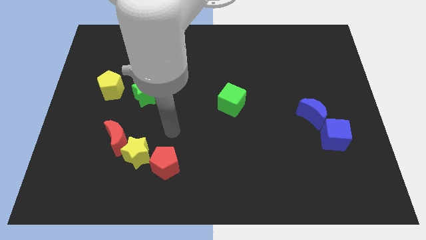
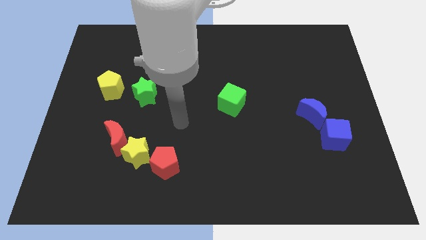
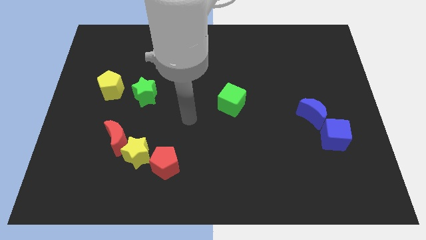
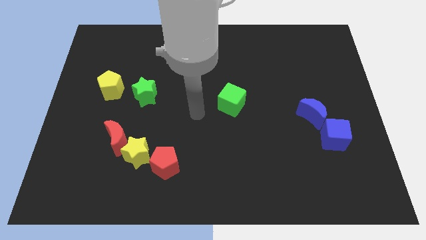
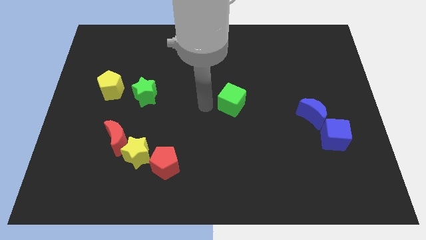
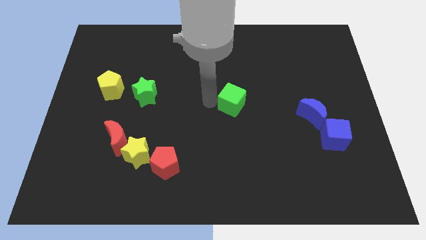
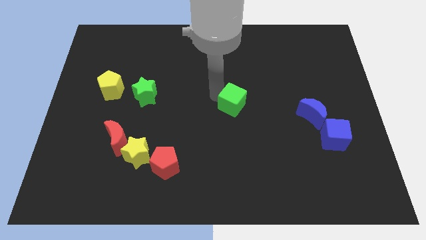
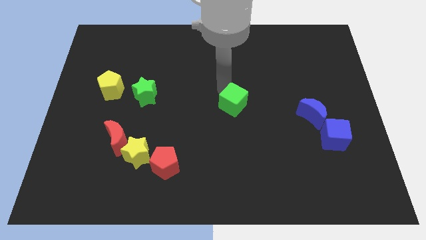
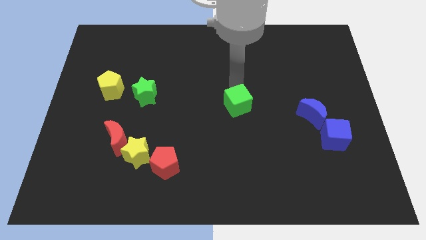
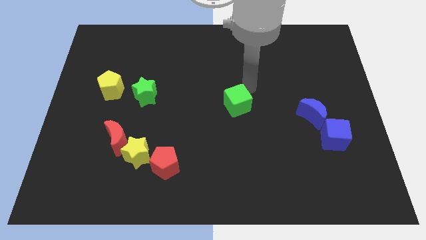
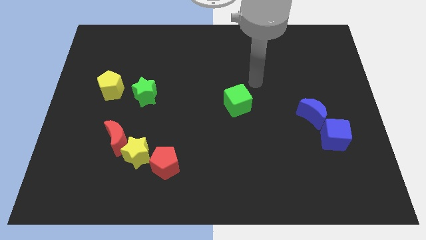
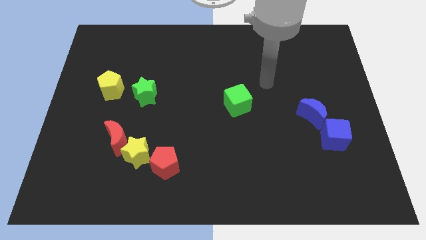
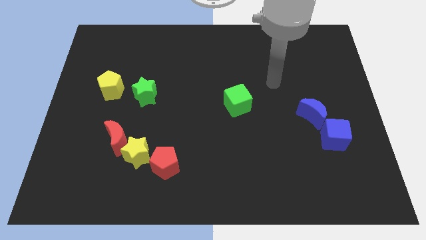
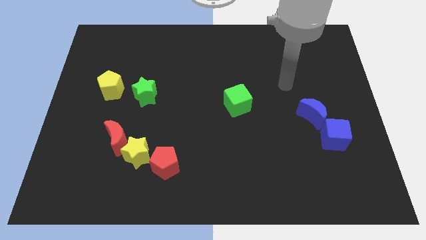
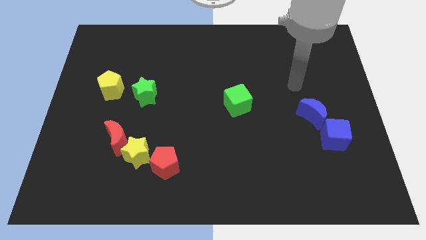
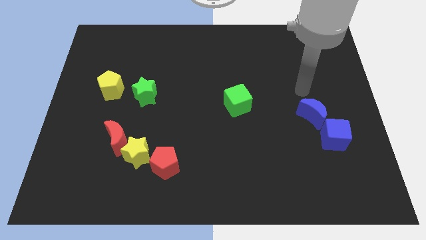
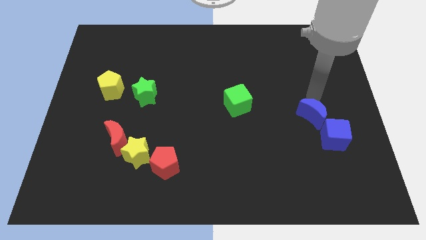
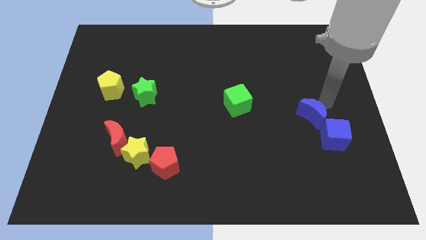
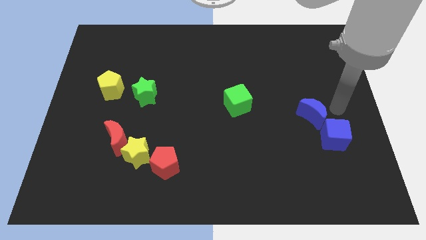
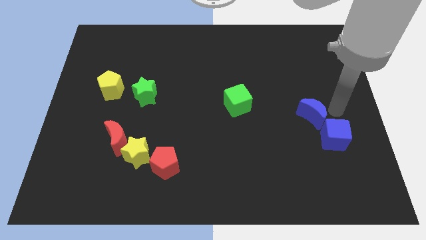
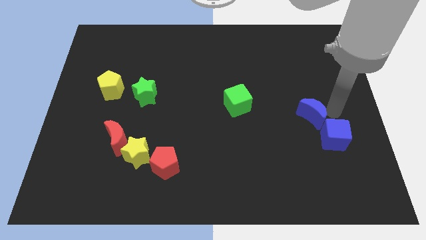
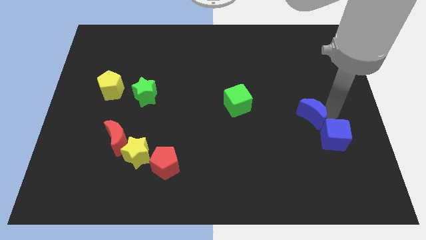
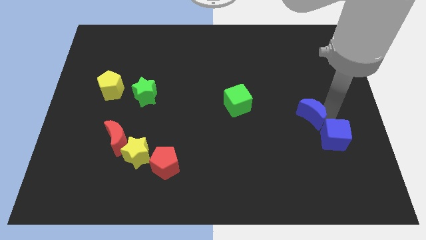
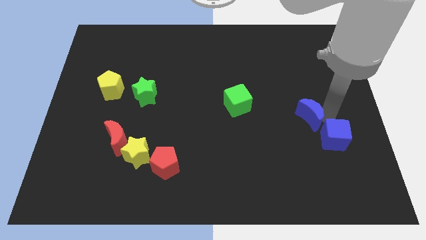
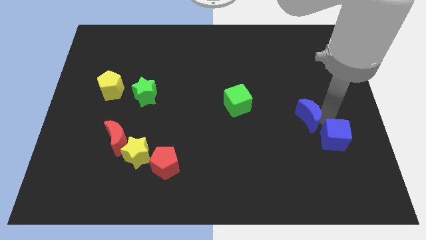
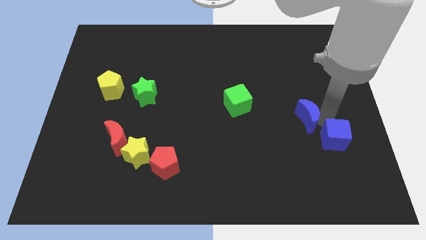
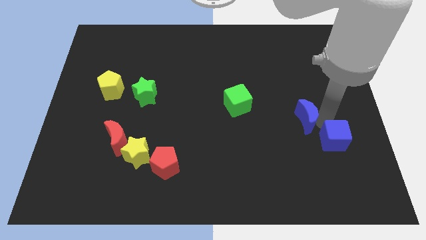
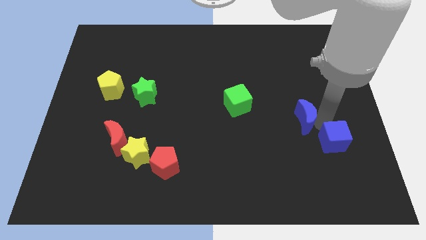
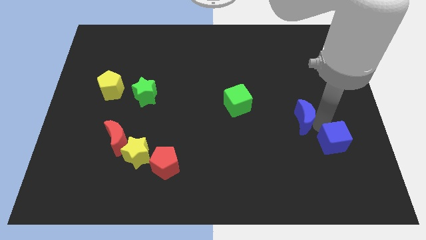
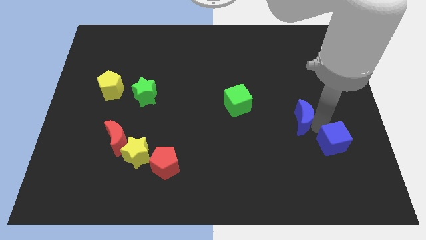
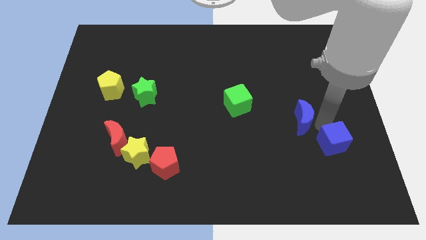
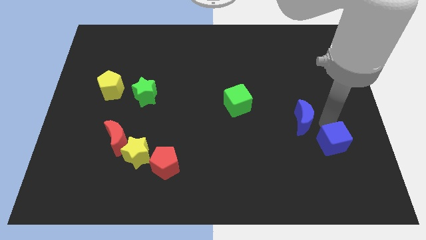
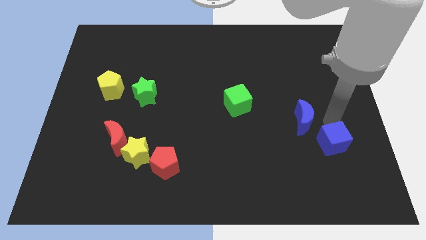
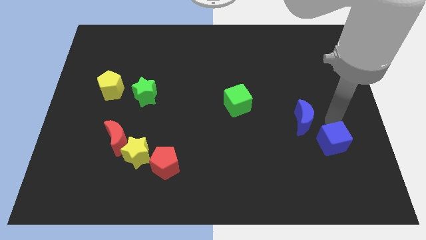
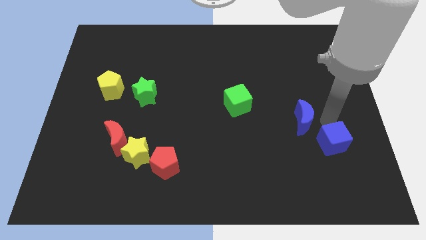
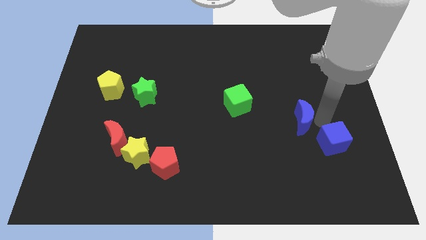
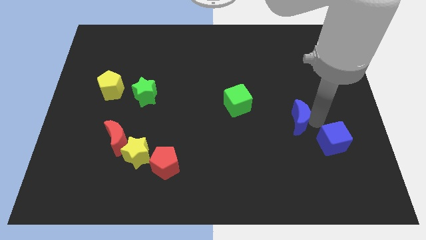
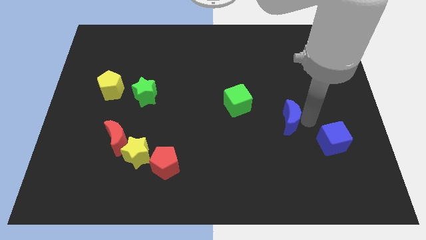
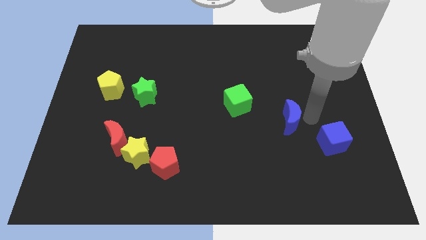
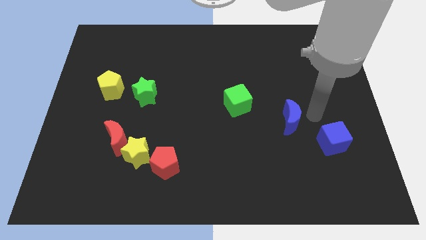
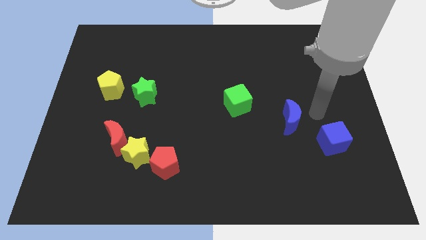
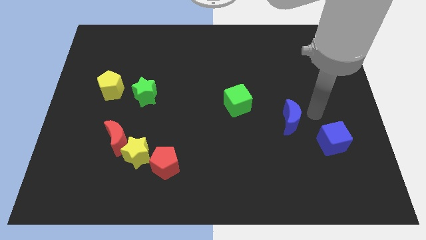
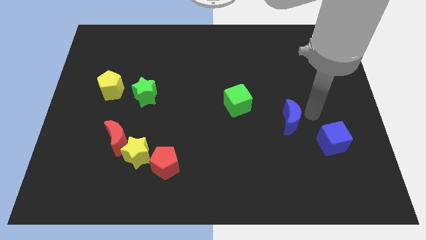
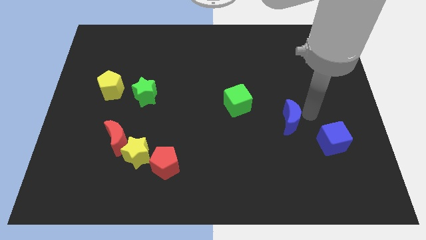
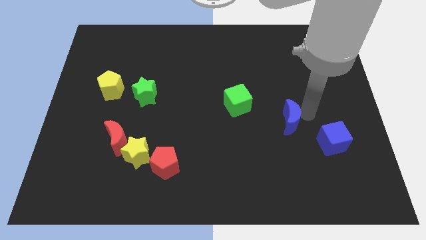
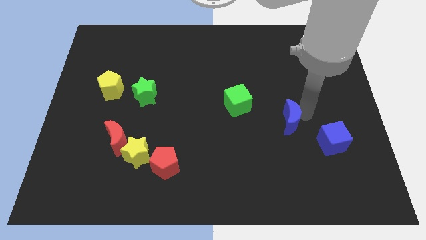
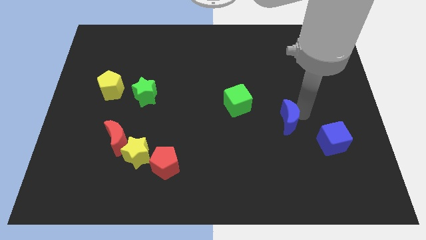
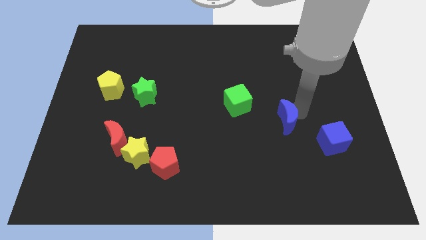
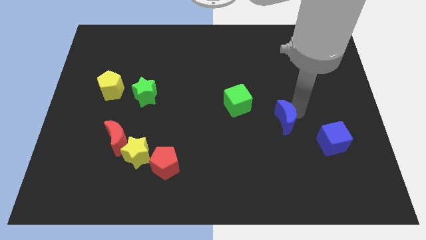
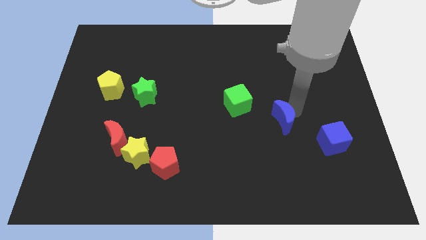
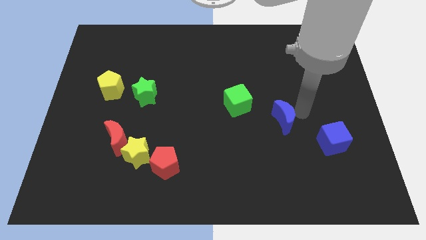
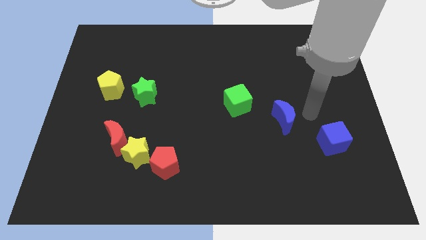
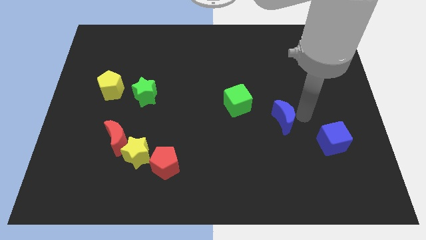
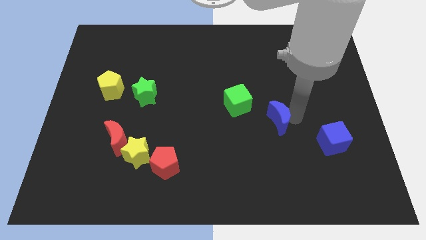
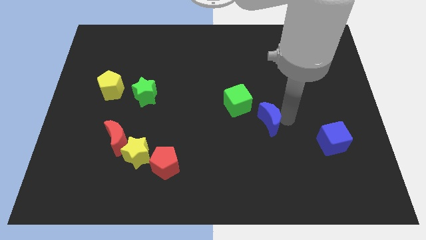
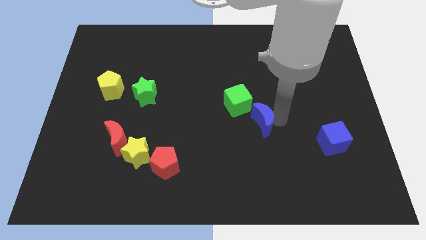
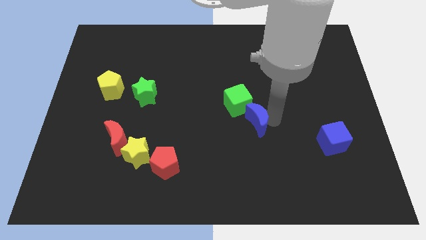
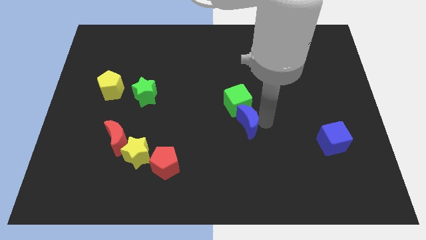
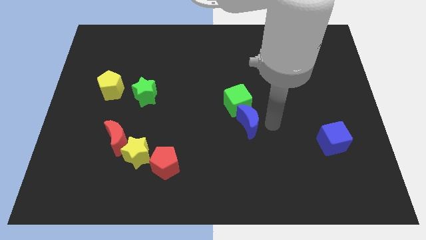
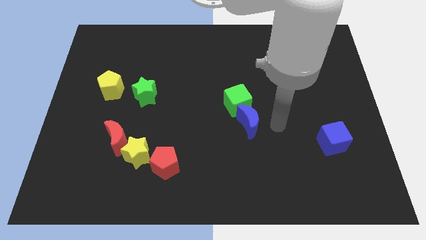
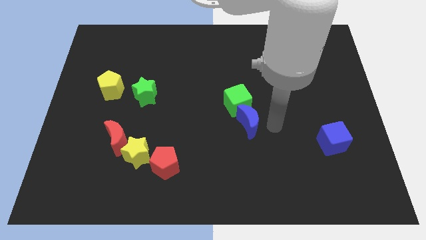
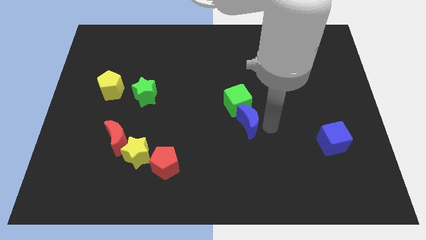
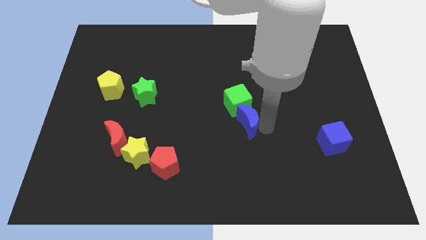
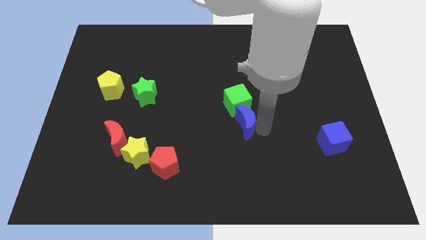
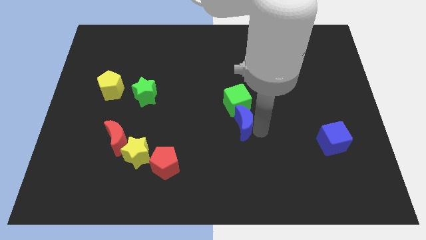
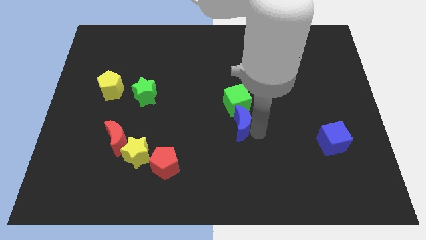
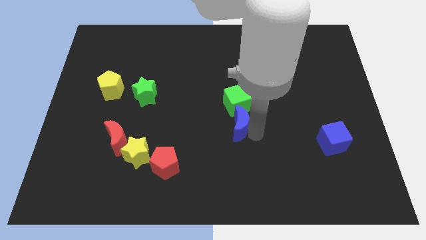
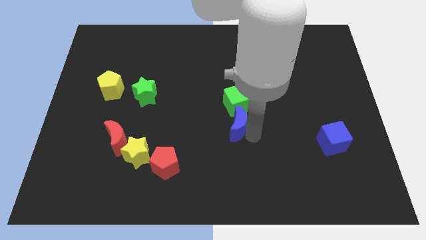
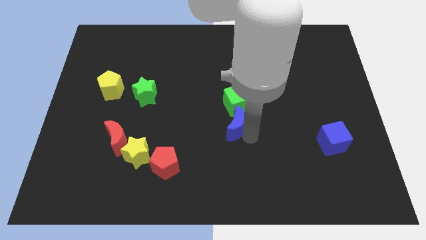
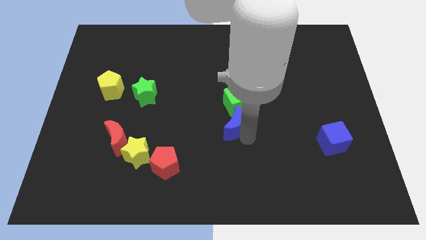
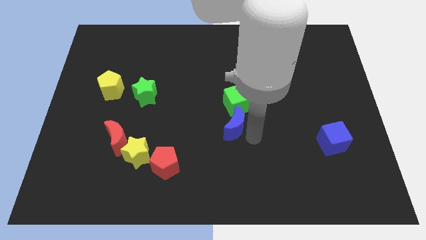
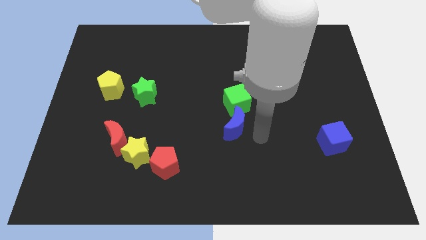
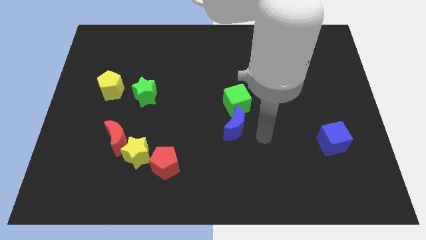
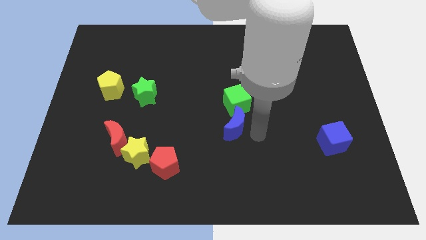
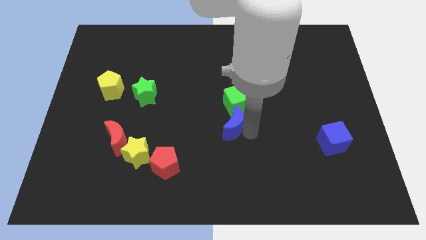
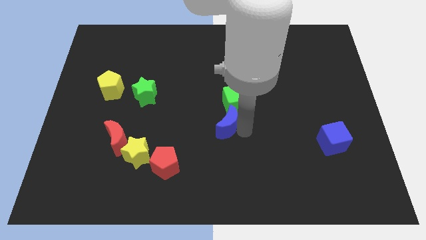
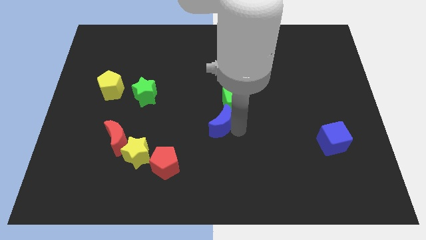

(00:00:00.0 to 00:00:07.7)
push the blue moon to the left

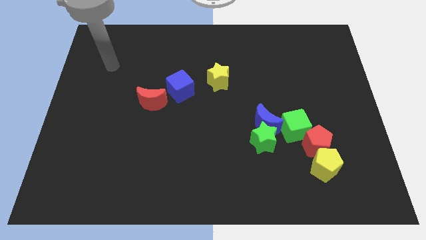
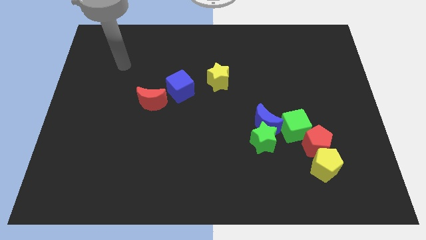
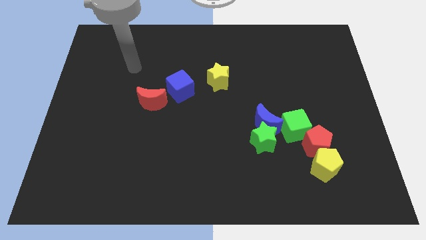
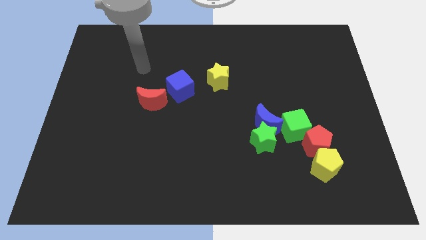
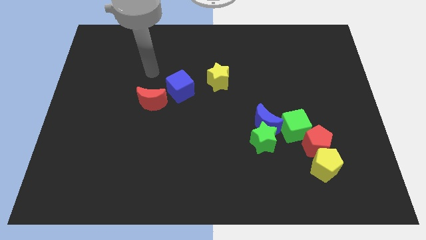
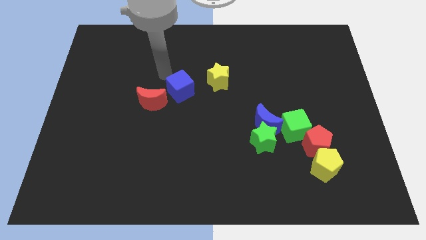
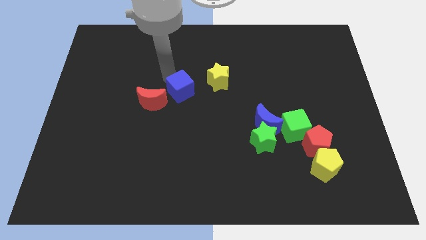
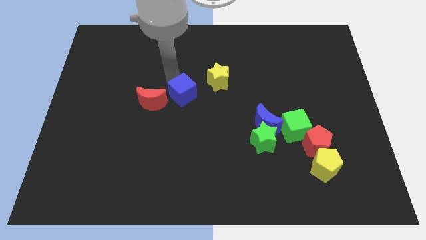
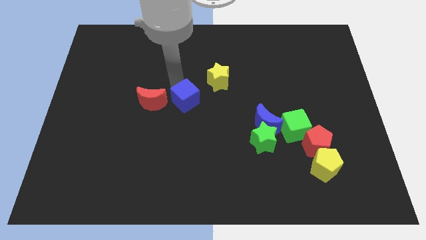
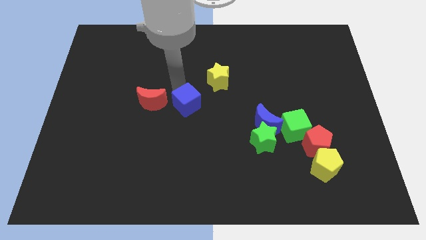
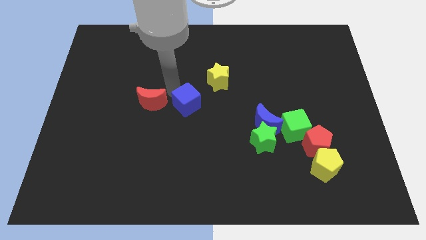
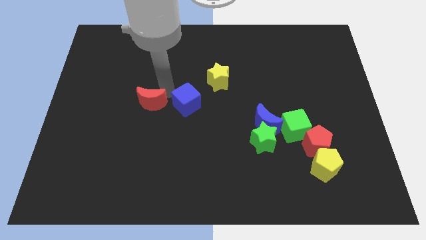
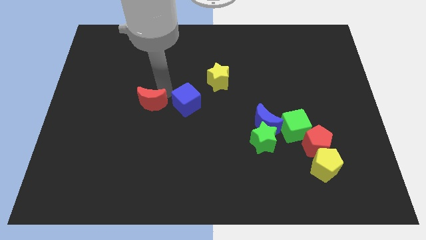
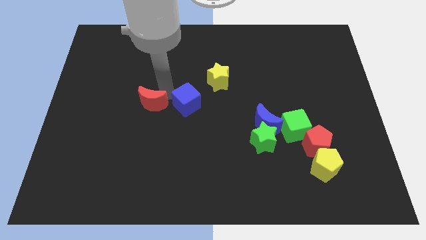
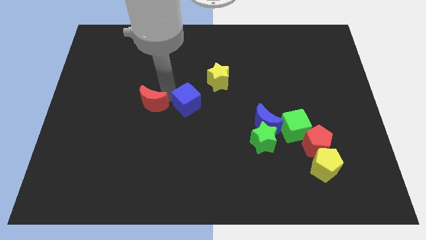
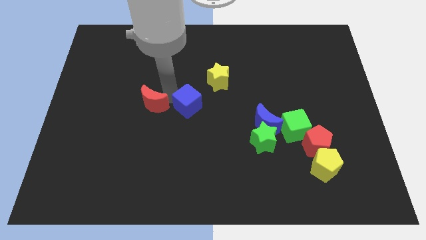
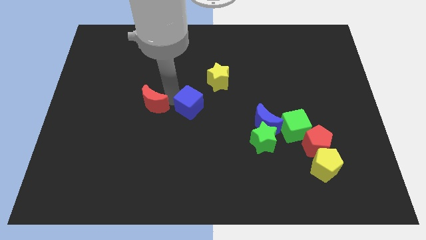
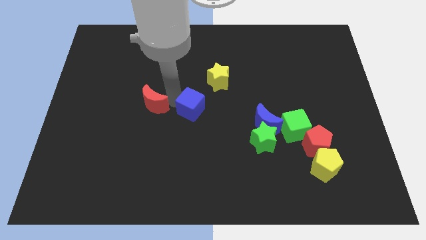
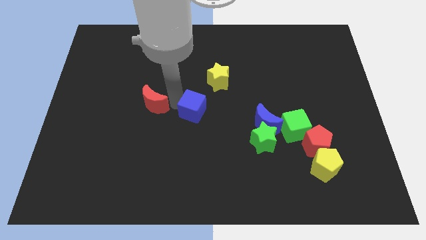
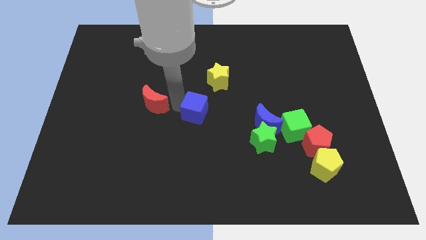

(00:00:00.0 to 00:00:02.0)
slide the blue cube down and then to the right somewhat
